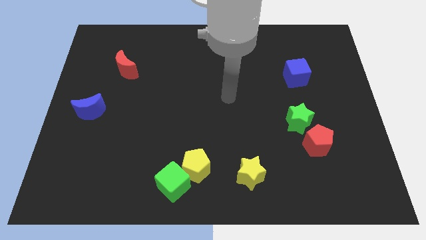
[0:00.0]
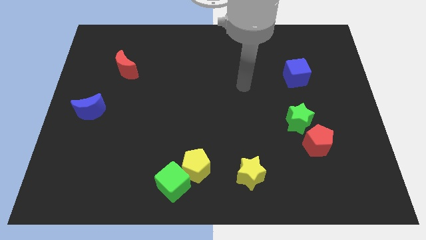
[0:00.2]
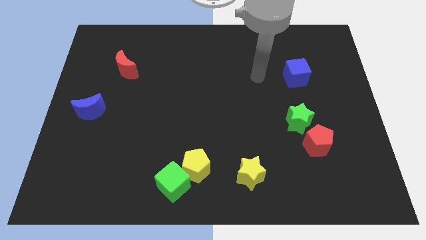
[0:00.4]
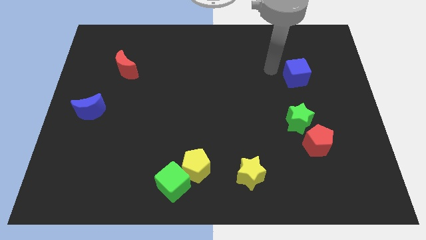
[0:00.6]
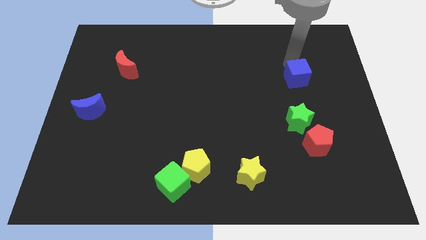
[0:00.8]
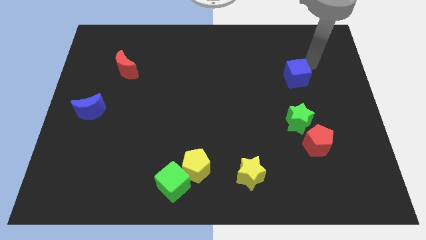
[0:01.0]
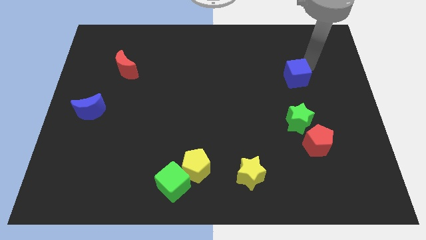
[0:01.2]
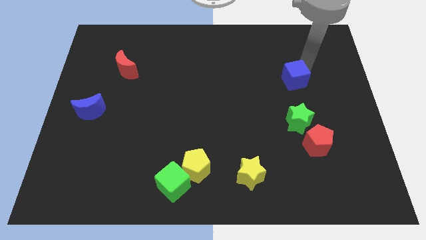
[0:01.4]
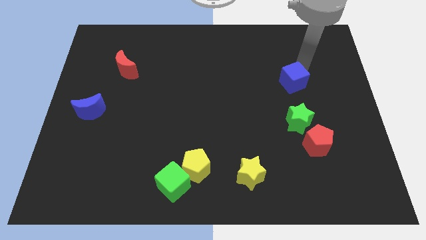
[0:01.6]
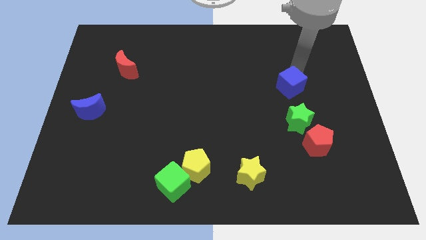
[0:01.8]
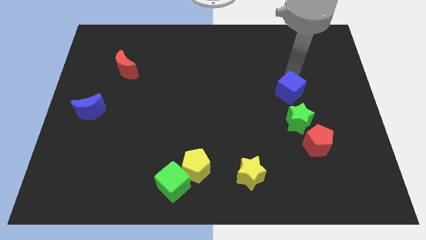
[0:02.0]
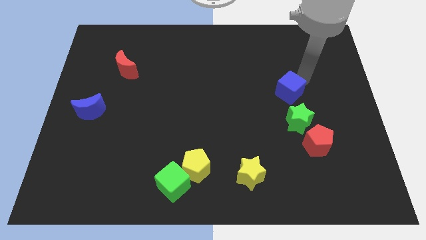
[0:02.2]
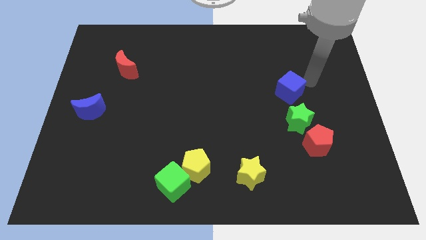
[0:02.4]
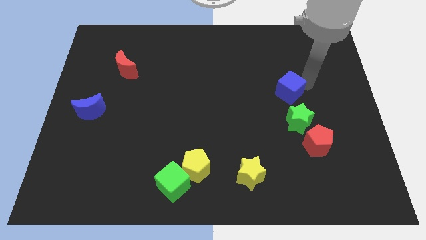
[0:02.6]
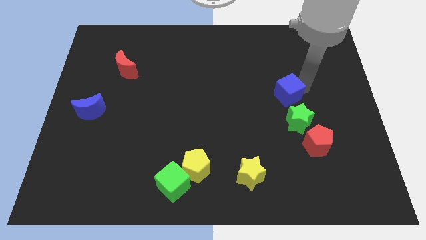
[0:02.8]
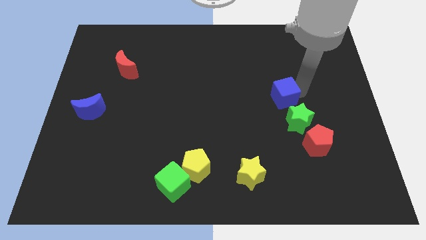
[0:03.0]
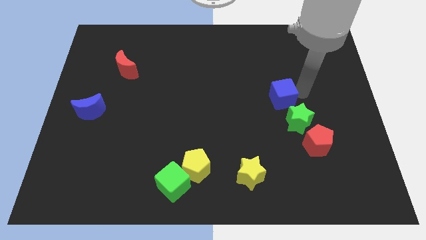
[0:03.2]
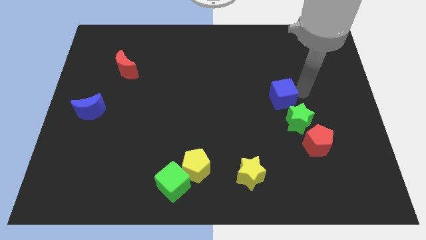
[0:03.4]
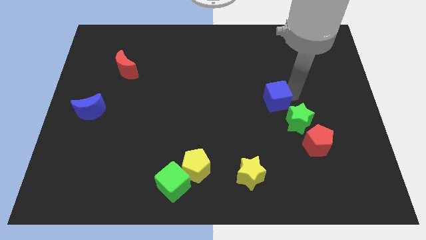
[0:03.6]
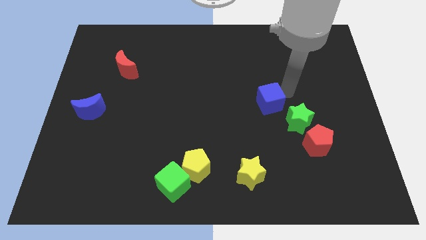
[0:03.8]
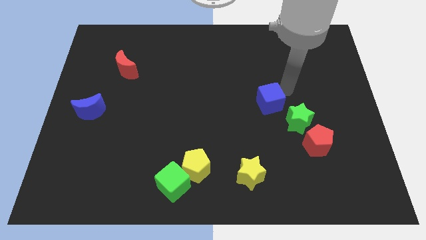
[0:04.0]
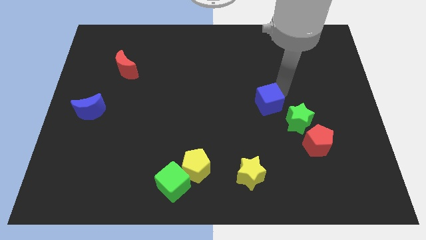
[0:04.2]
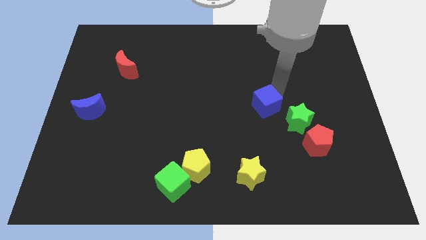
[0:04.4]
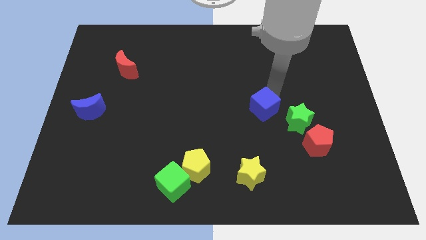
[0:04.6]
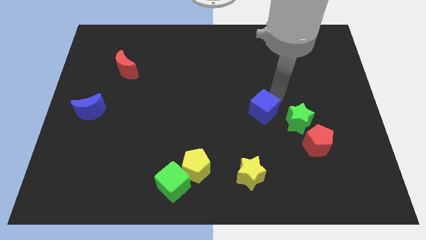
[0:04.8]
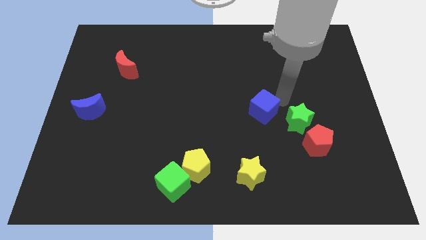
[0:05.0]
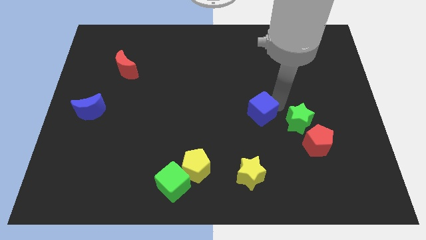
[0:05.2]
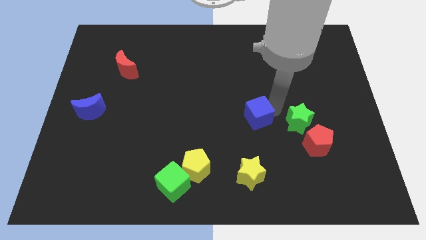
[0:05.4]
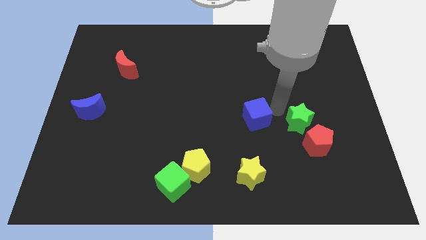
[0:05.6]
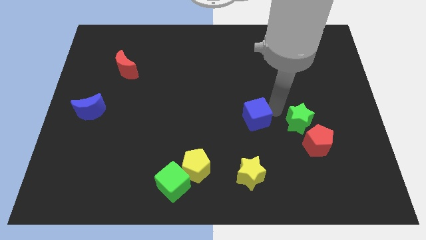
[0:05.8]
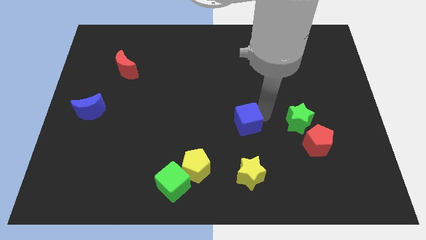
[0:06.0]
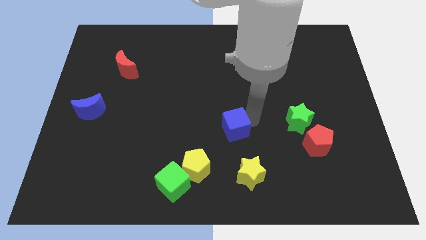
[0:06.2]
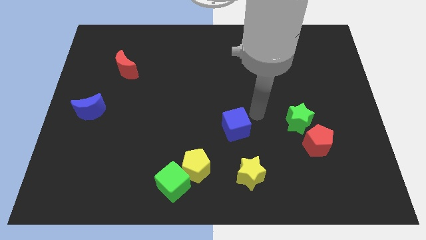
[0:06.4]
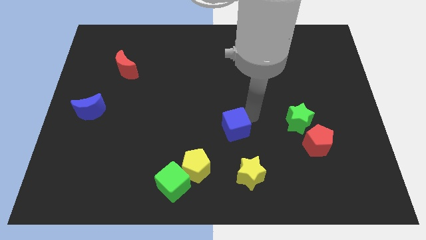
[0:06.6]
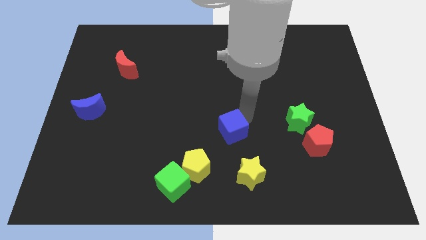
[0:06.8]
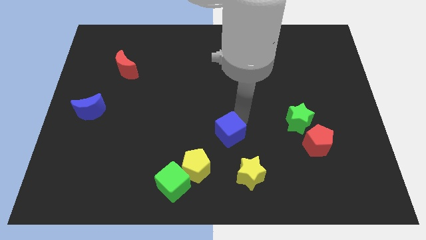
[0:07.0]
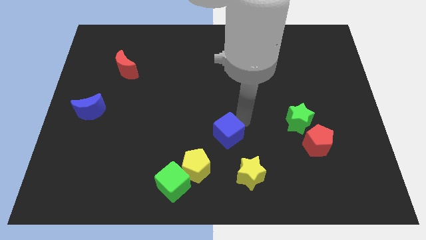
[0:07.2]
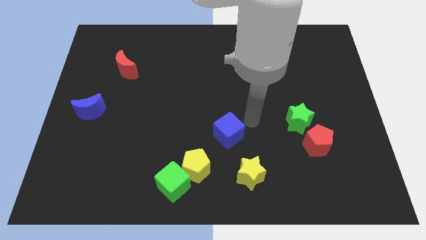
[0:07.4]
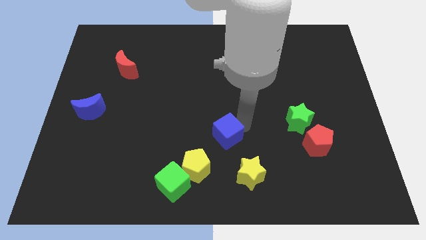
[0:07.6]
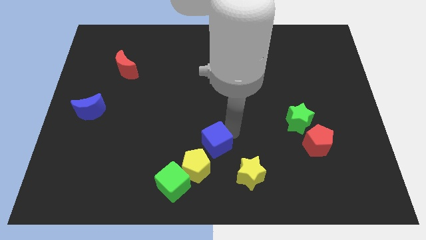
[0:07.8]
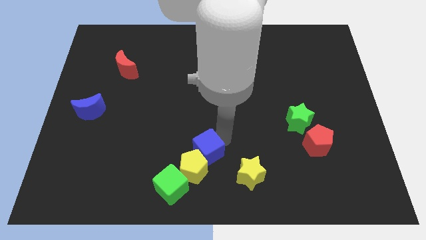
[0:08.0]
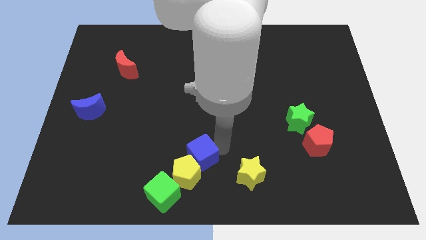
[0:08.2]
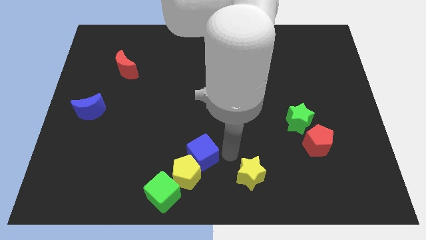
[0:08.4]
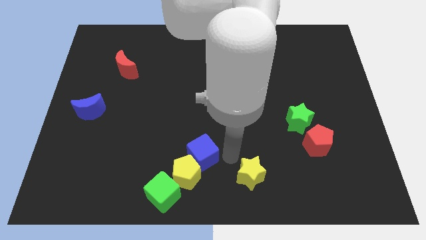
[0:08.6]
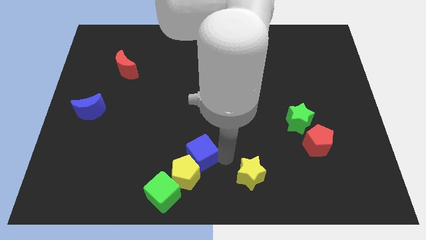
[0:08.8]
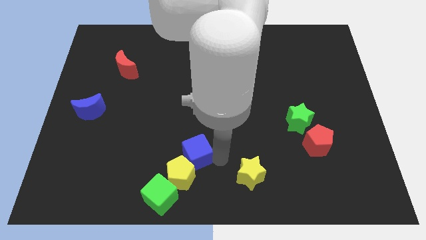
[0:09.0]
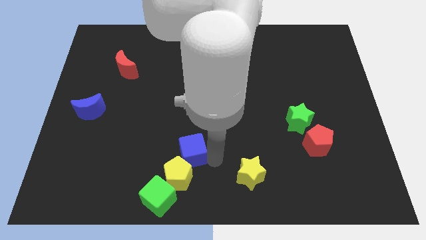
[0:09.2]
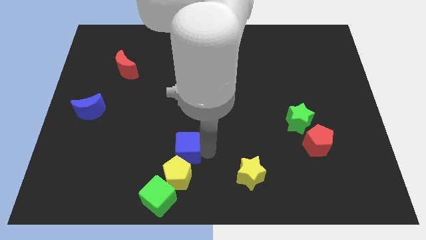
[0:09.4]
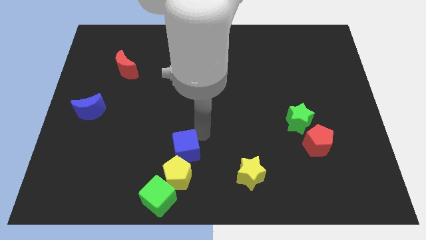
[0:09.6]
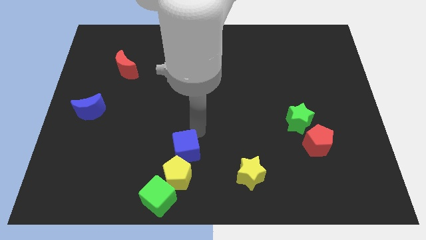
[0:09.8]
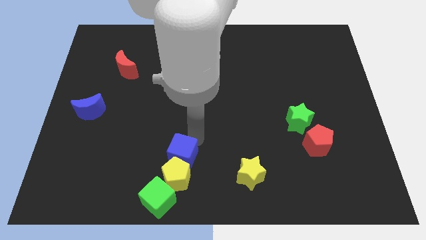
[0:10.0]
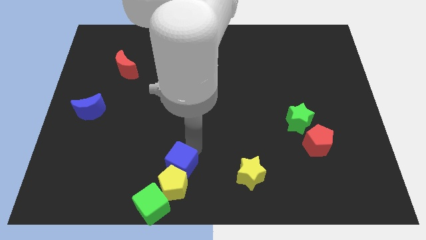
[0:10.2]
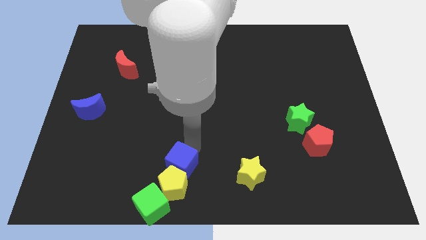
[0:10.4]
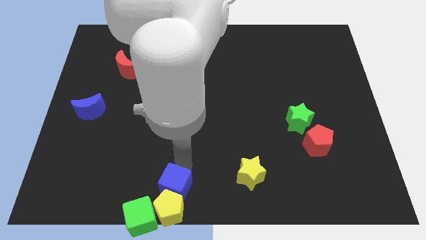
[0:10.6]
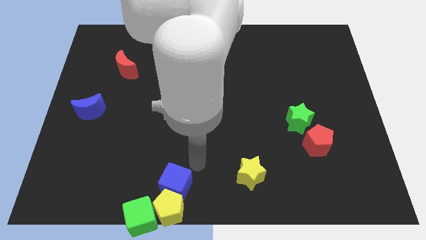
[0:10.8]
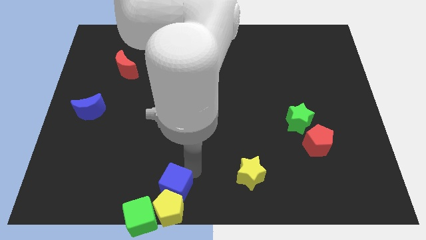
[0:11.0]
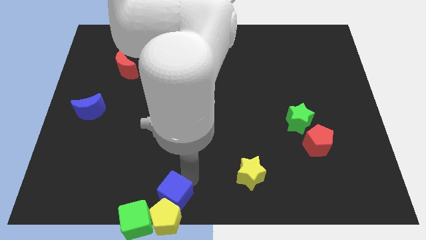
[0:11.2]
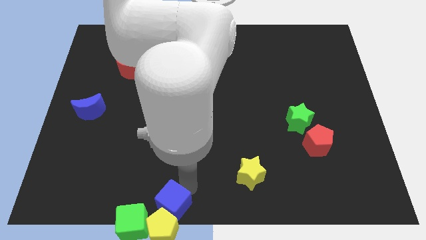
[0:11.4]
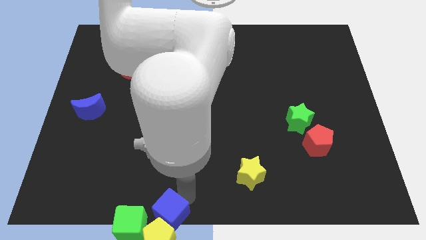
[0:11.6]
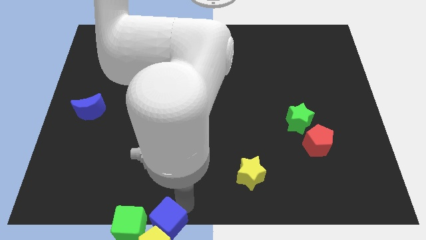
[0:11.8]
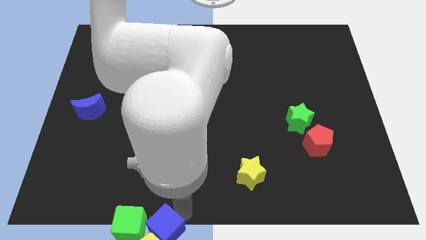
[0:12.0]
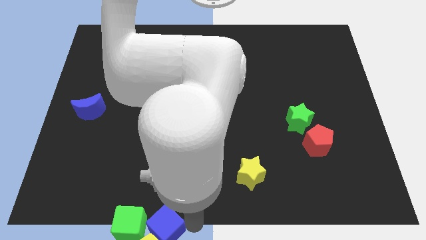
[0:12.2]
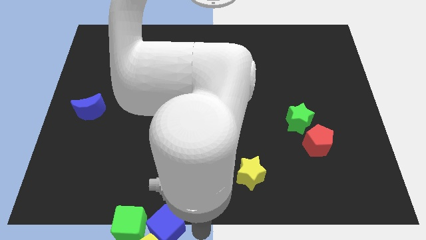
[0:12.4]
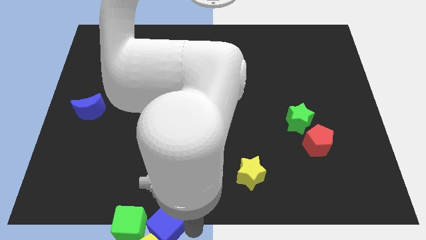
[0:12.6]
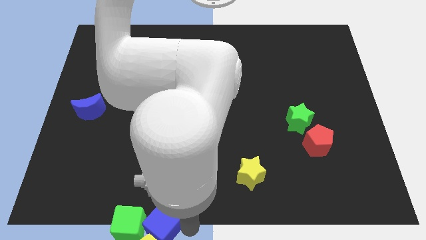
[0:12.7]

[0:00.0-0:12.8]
put the blue cube towards the green cube

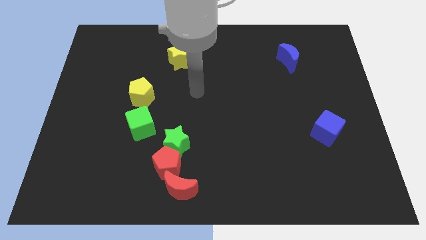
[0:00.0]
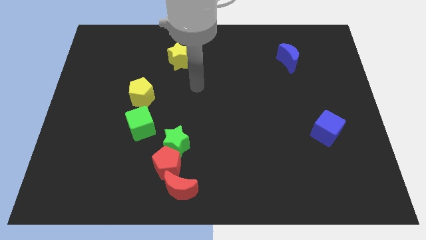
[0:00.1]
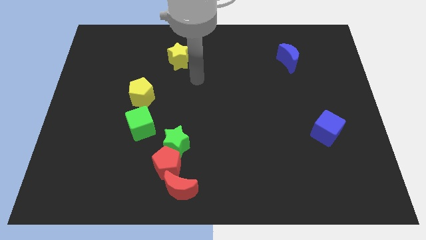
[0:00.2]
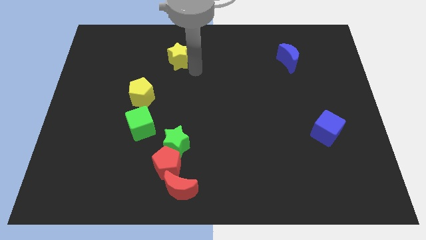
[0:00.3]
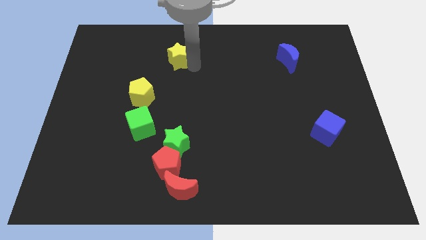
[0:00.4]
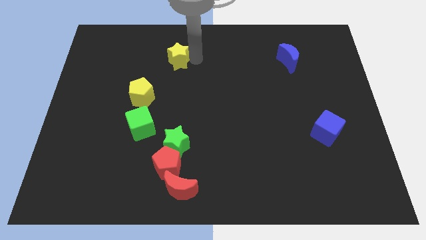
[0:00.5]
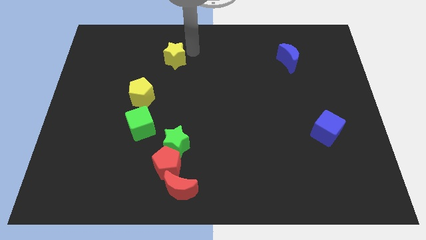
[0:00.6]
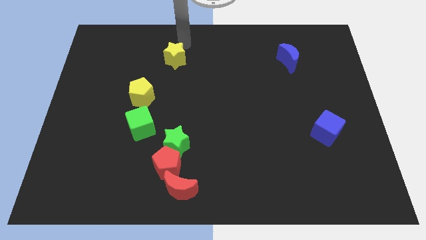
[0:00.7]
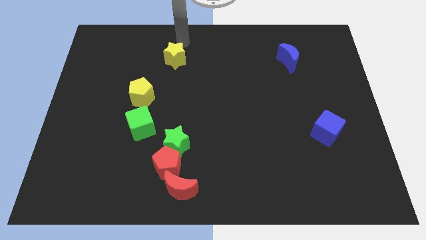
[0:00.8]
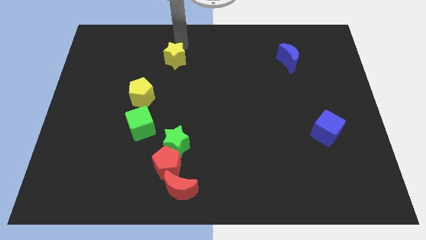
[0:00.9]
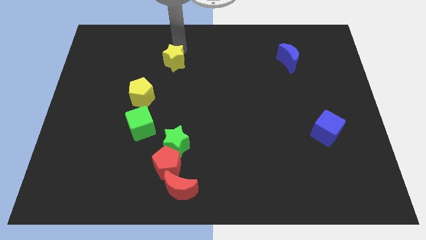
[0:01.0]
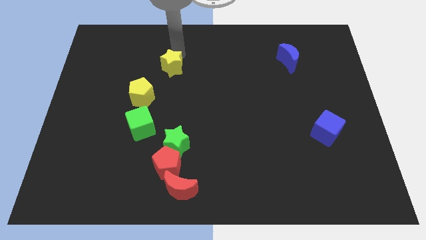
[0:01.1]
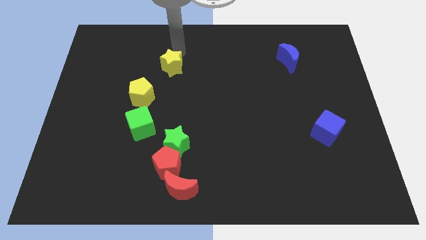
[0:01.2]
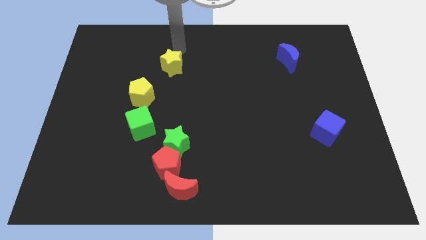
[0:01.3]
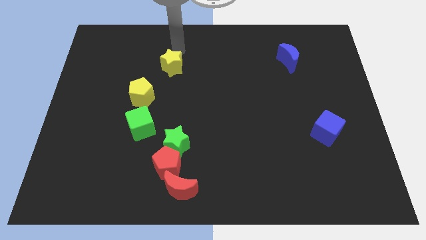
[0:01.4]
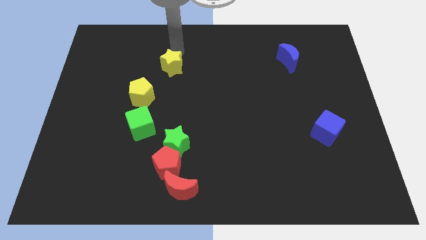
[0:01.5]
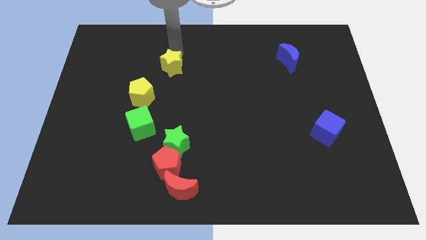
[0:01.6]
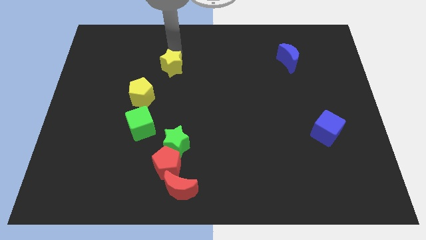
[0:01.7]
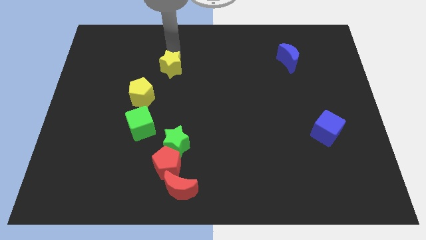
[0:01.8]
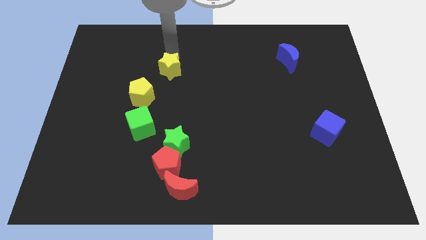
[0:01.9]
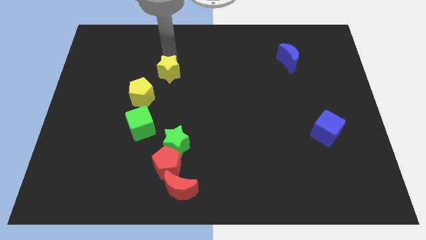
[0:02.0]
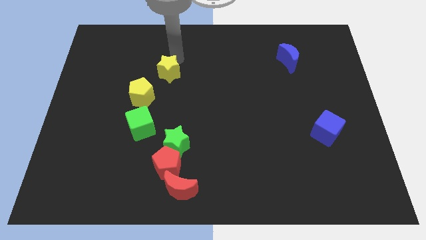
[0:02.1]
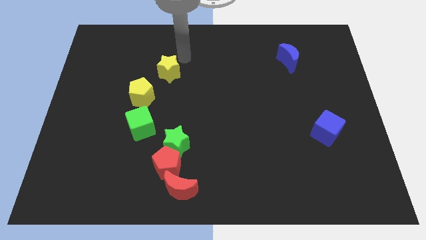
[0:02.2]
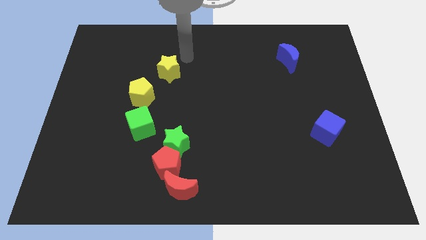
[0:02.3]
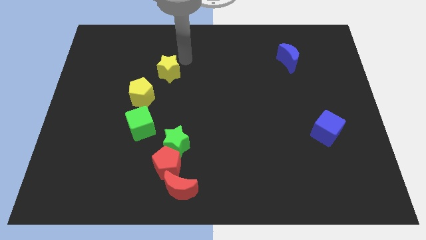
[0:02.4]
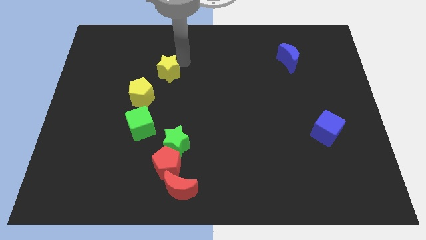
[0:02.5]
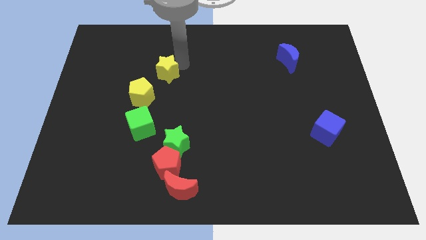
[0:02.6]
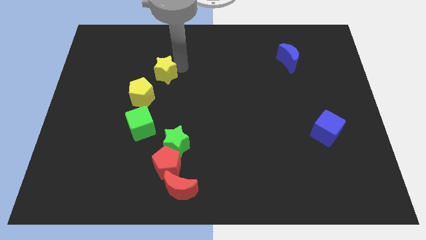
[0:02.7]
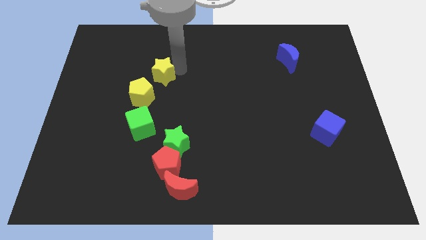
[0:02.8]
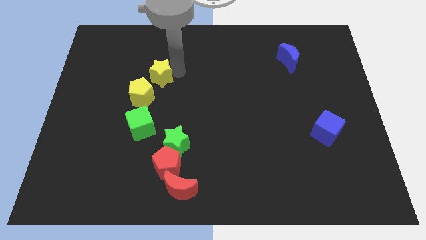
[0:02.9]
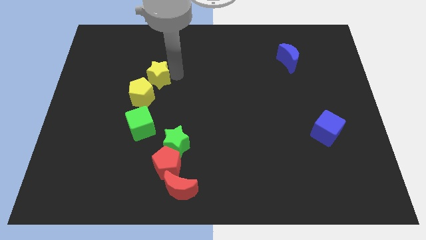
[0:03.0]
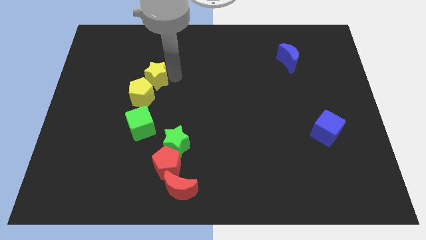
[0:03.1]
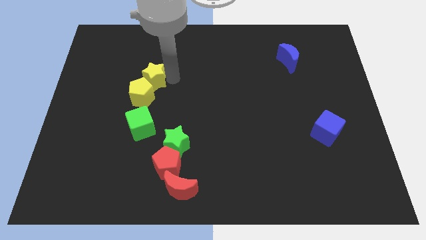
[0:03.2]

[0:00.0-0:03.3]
put the yellow star next to the yellow pentagon
